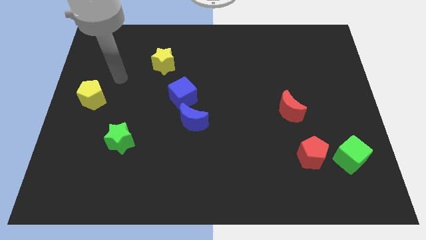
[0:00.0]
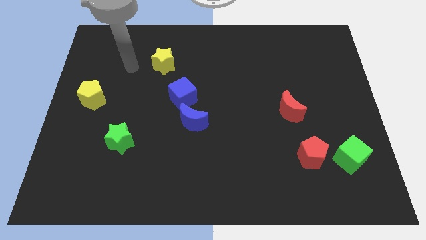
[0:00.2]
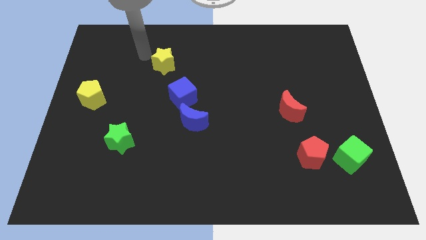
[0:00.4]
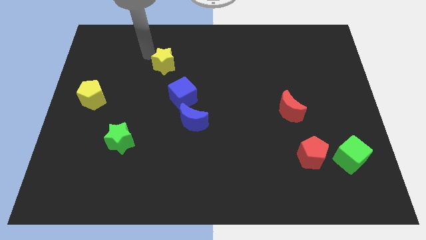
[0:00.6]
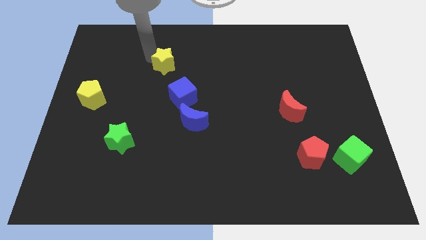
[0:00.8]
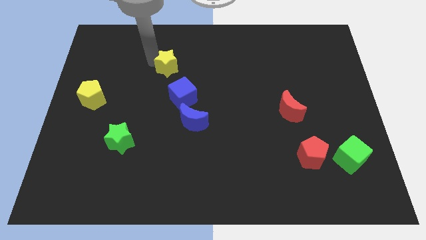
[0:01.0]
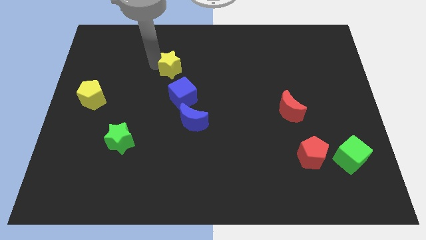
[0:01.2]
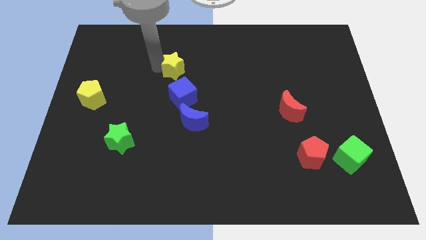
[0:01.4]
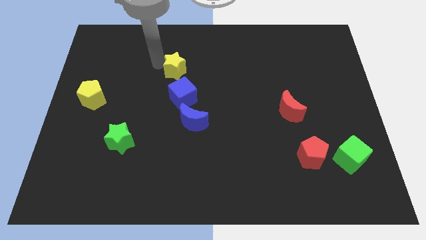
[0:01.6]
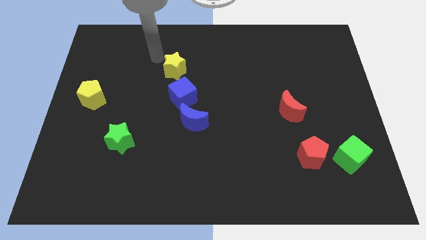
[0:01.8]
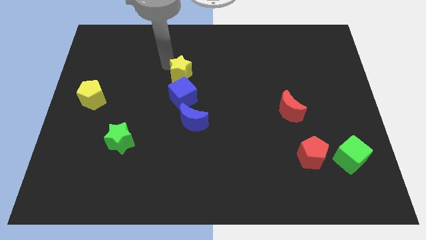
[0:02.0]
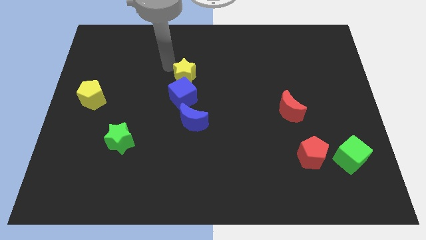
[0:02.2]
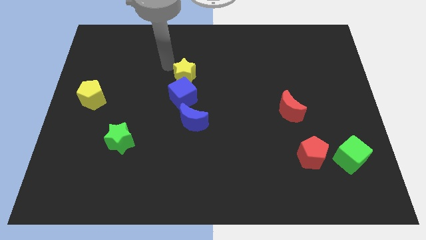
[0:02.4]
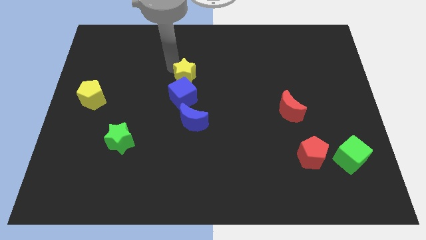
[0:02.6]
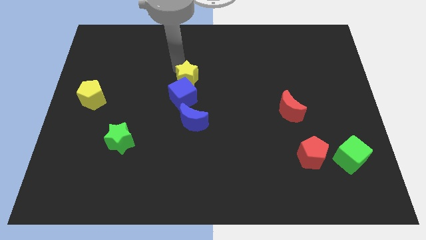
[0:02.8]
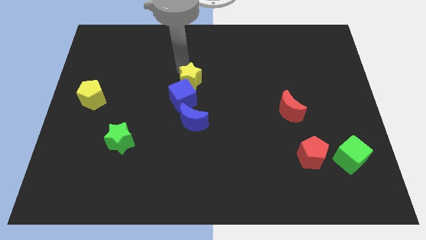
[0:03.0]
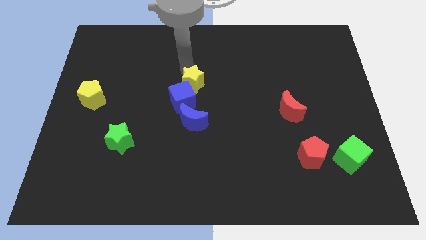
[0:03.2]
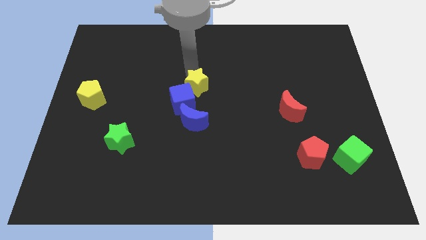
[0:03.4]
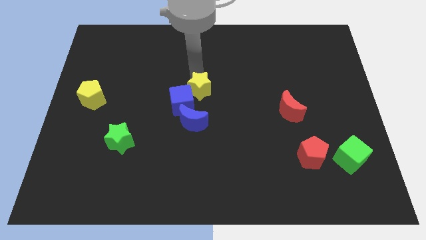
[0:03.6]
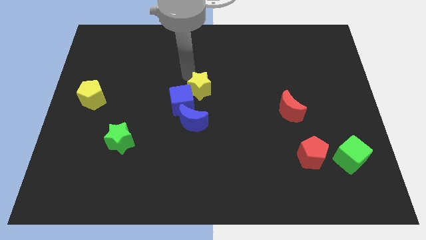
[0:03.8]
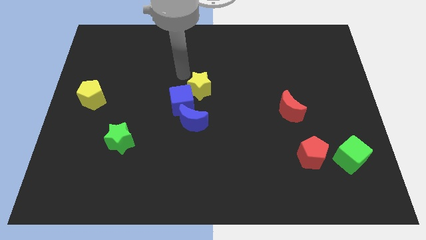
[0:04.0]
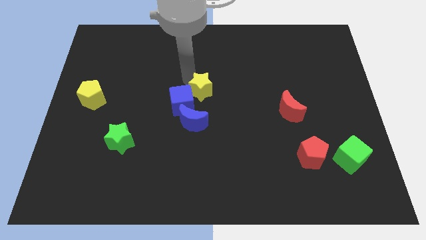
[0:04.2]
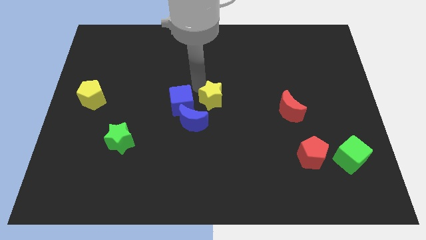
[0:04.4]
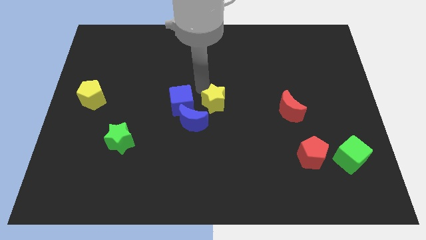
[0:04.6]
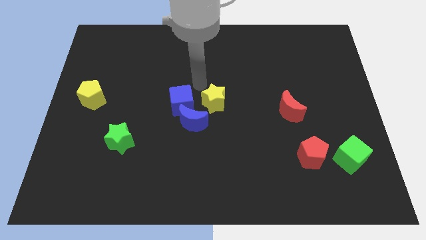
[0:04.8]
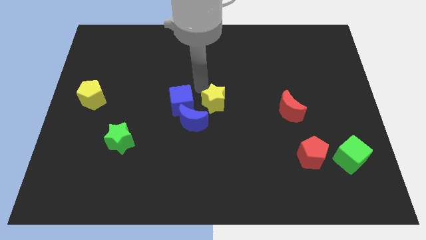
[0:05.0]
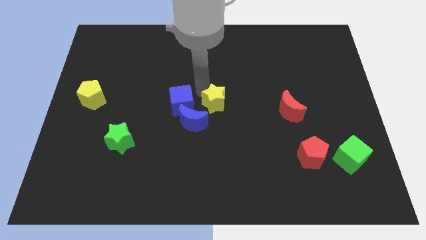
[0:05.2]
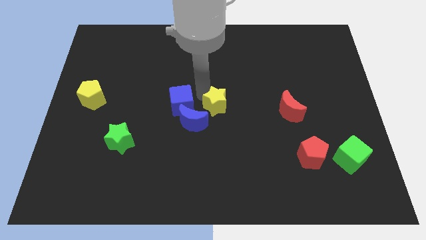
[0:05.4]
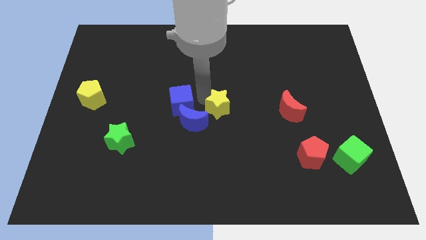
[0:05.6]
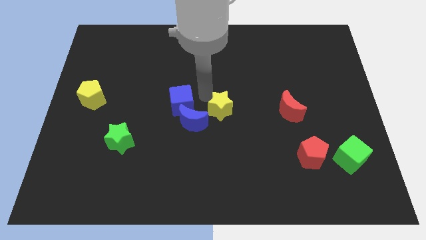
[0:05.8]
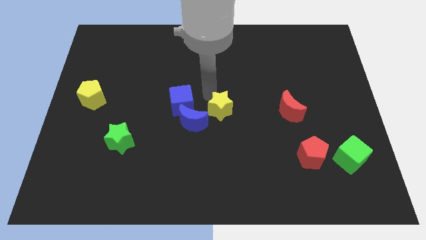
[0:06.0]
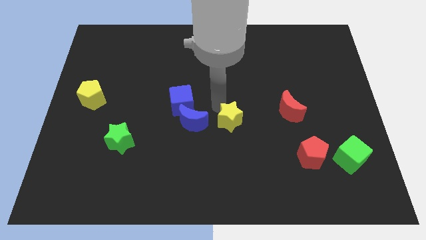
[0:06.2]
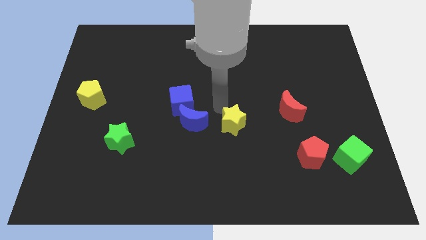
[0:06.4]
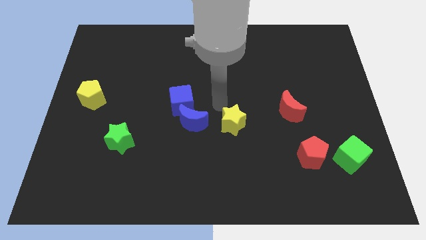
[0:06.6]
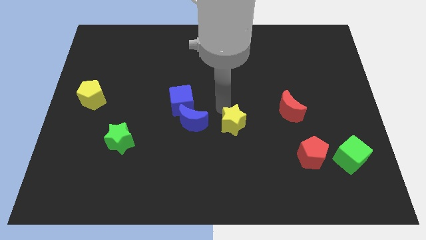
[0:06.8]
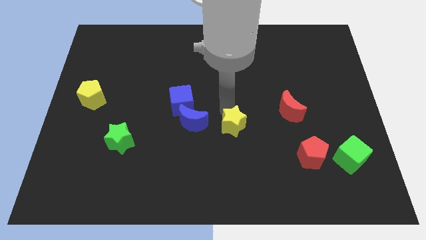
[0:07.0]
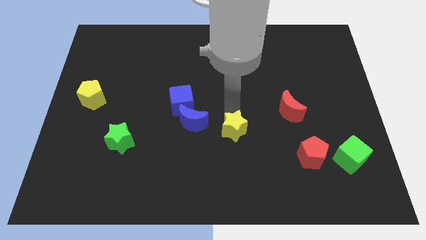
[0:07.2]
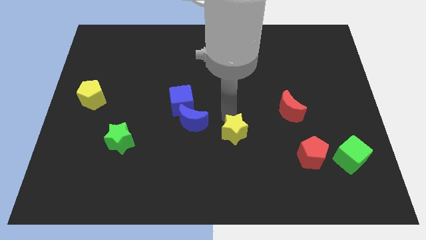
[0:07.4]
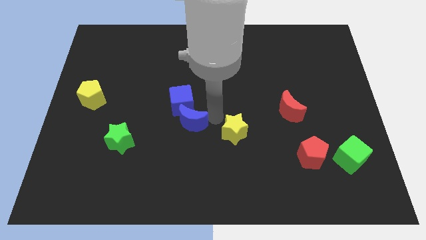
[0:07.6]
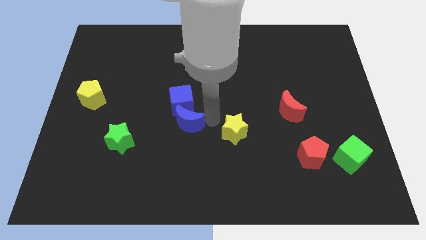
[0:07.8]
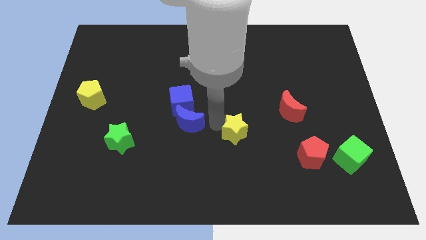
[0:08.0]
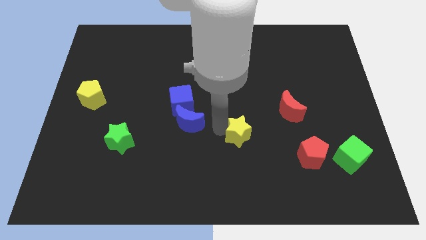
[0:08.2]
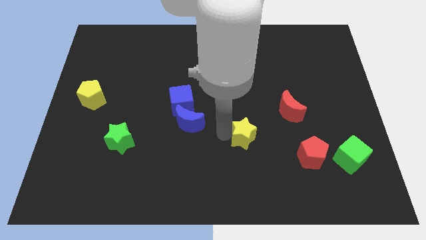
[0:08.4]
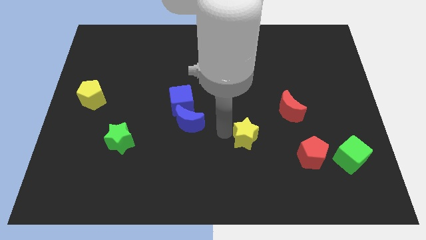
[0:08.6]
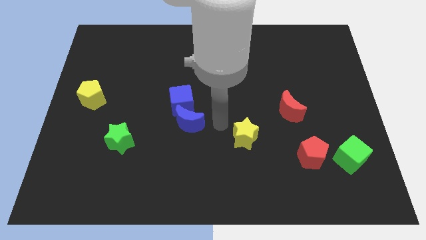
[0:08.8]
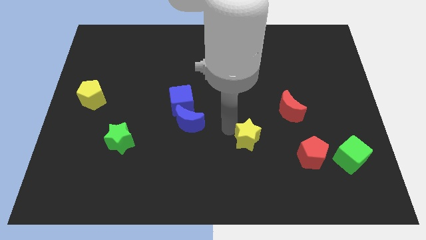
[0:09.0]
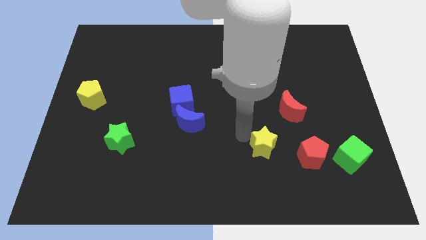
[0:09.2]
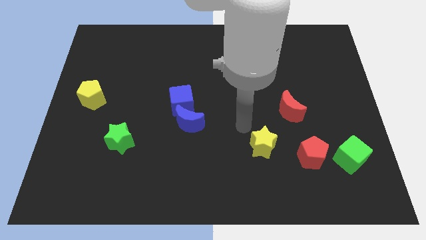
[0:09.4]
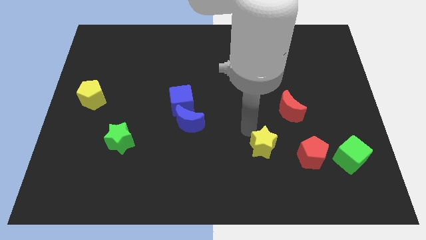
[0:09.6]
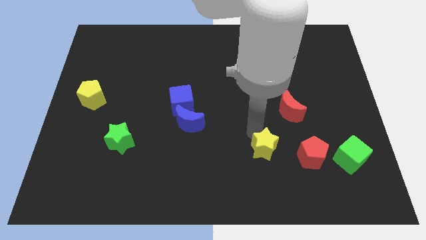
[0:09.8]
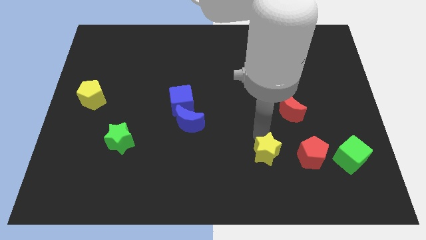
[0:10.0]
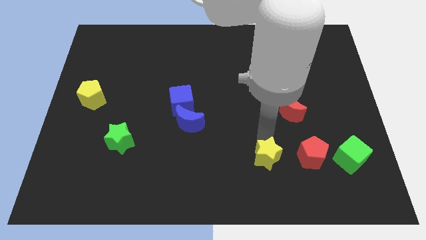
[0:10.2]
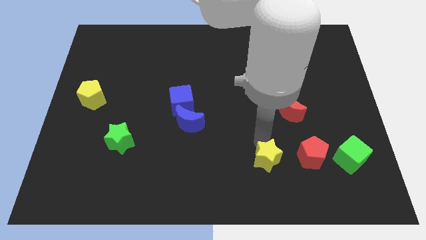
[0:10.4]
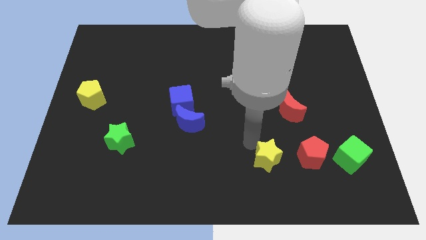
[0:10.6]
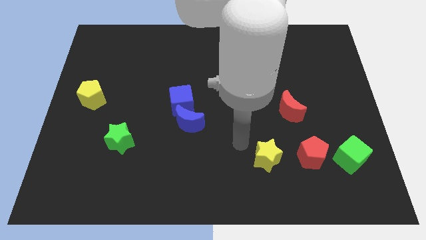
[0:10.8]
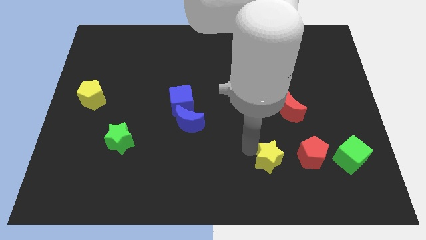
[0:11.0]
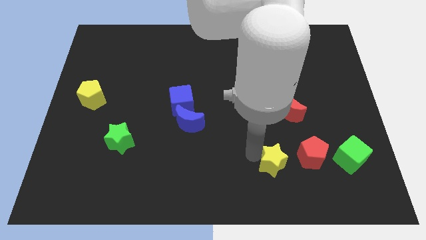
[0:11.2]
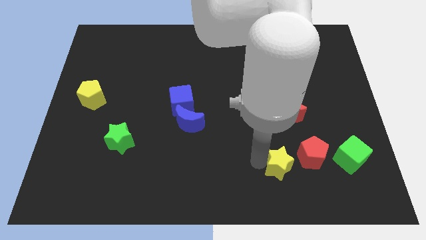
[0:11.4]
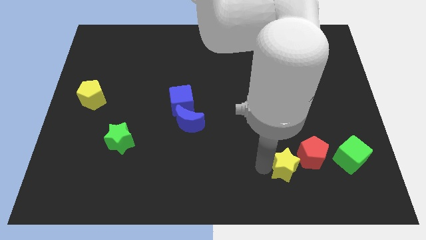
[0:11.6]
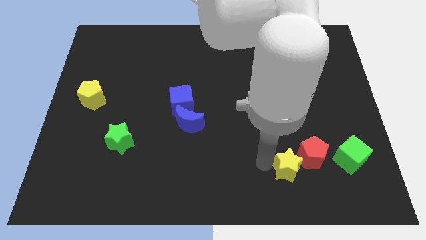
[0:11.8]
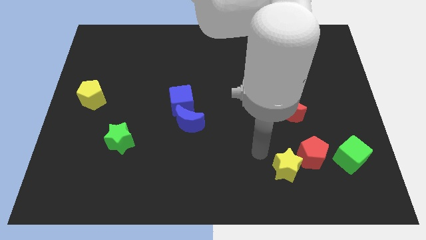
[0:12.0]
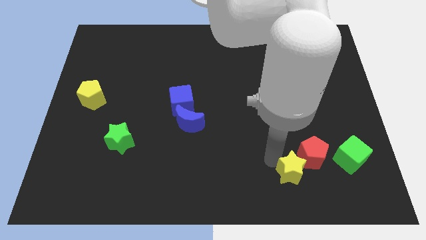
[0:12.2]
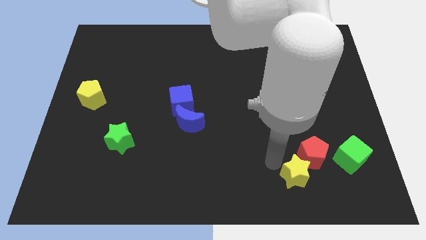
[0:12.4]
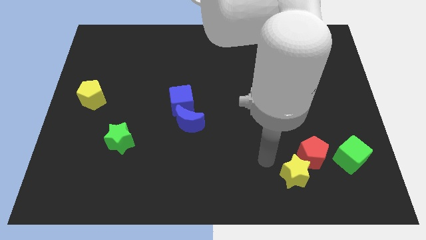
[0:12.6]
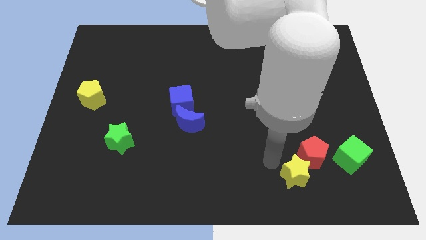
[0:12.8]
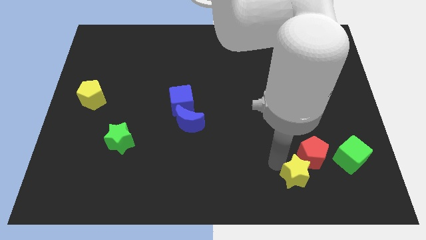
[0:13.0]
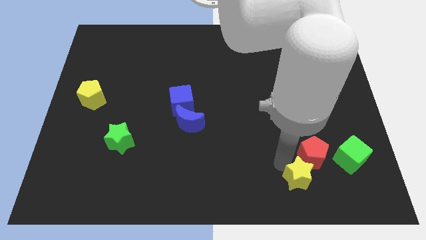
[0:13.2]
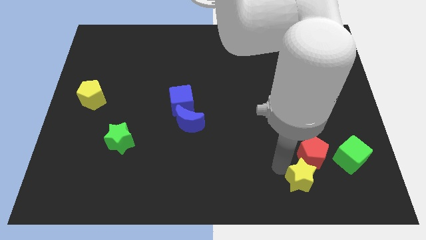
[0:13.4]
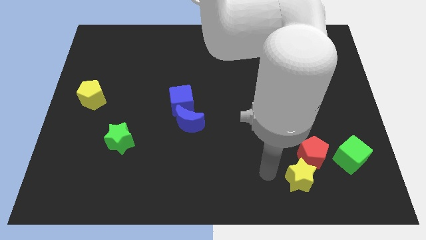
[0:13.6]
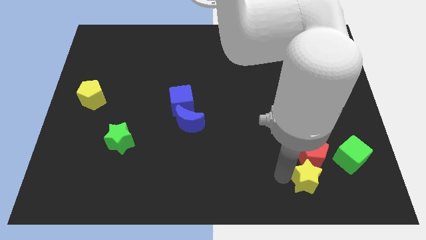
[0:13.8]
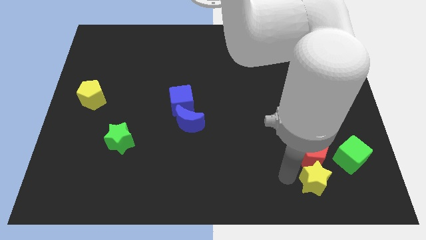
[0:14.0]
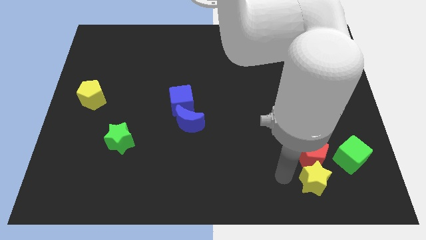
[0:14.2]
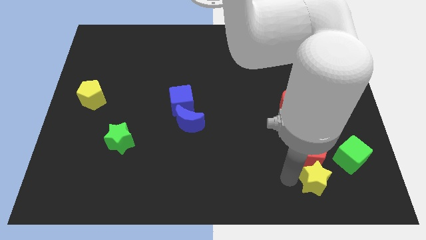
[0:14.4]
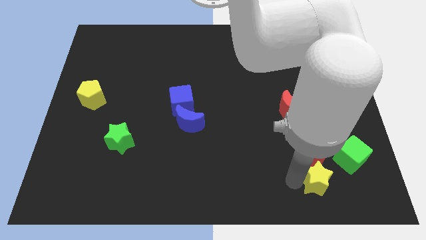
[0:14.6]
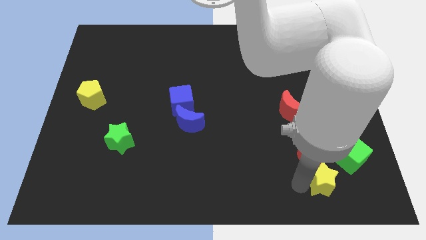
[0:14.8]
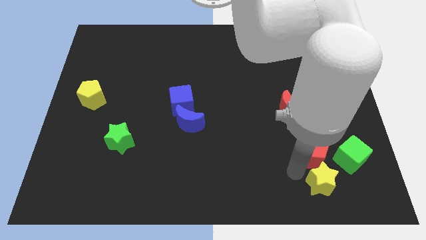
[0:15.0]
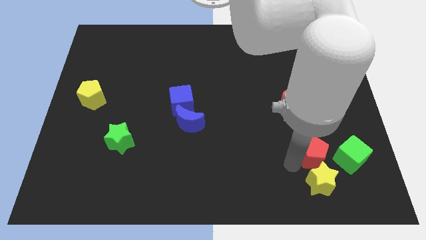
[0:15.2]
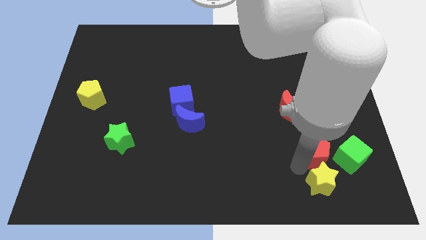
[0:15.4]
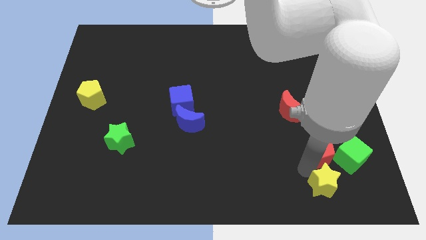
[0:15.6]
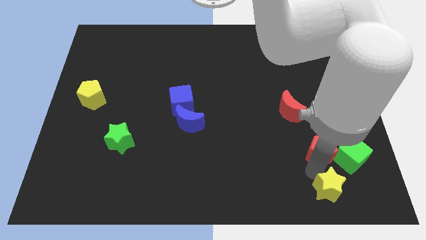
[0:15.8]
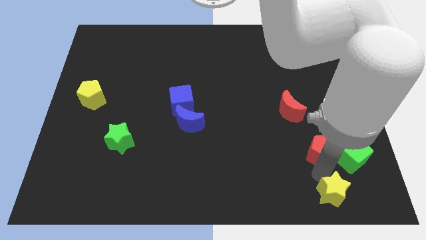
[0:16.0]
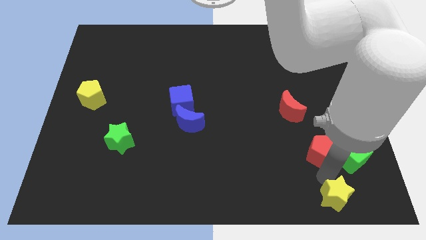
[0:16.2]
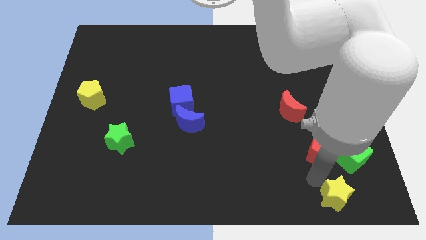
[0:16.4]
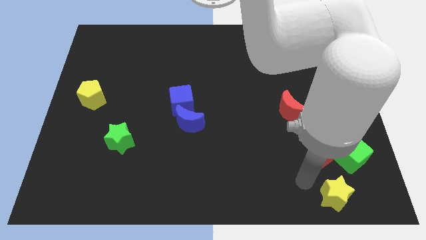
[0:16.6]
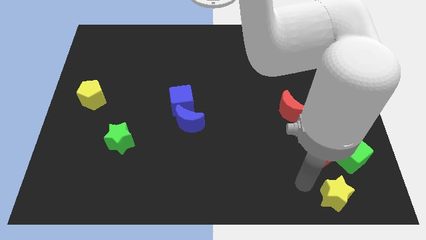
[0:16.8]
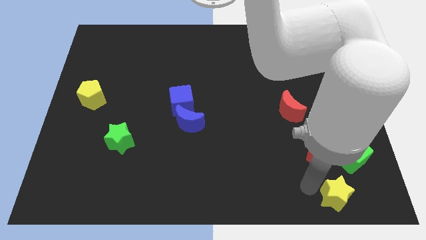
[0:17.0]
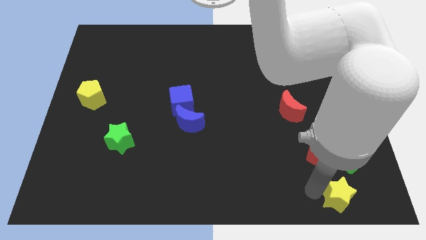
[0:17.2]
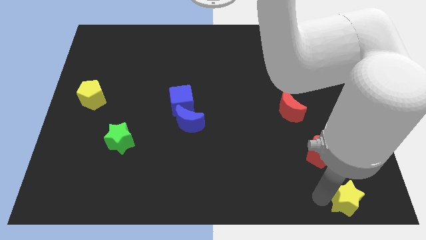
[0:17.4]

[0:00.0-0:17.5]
put the yellow star to the lower right corner
